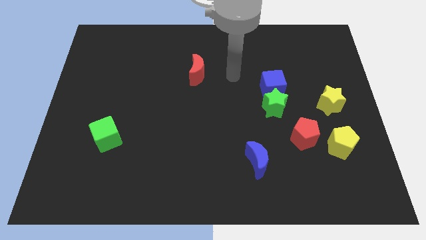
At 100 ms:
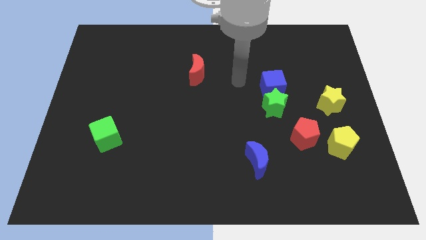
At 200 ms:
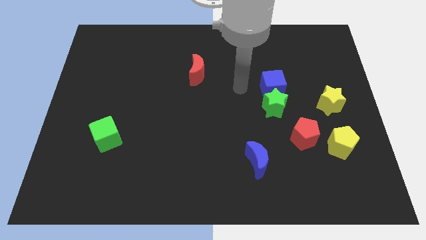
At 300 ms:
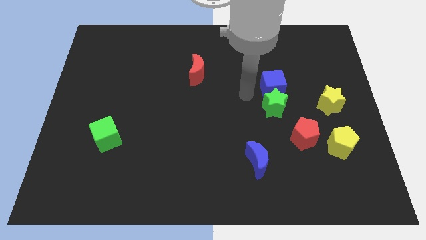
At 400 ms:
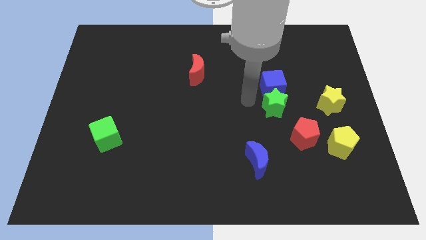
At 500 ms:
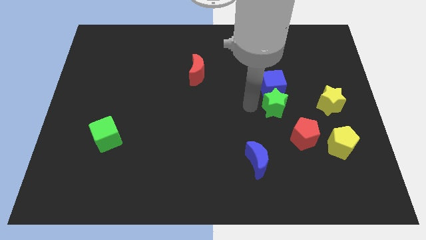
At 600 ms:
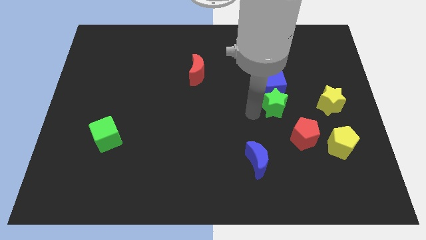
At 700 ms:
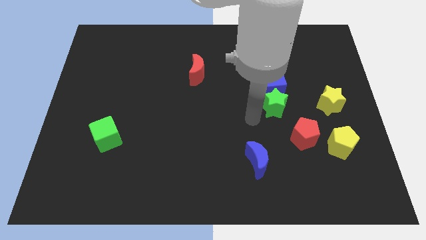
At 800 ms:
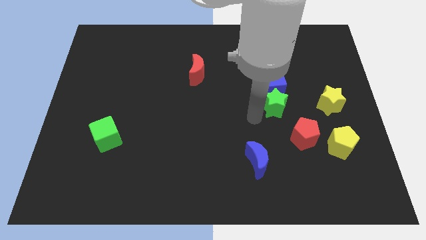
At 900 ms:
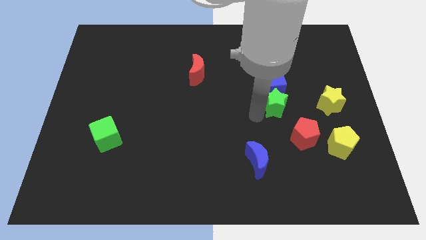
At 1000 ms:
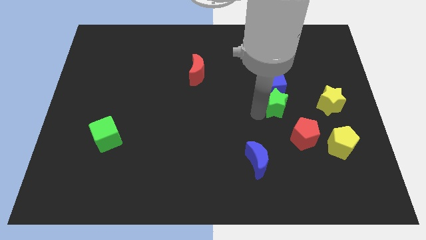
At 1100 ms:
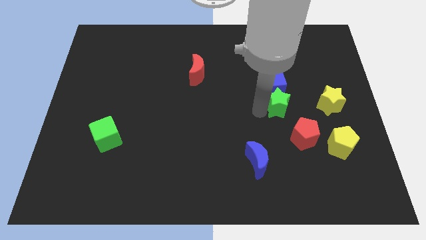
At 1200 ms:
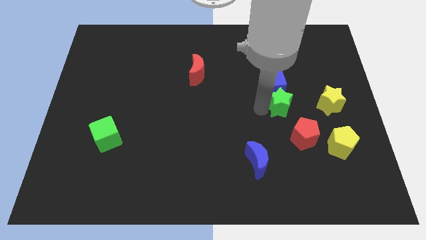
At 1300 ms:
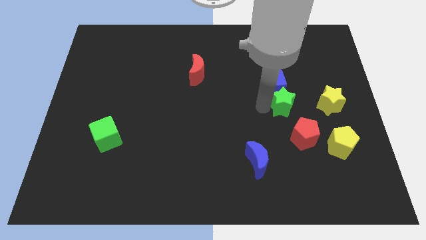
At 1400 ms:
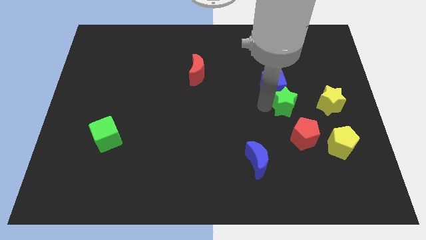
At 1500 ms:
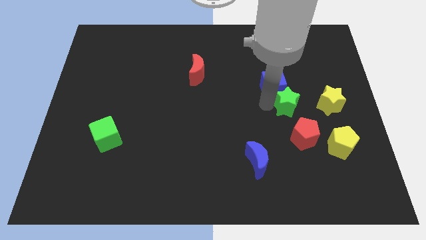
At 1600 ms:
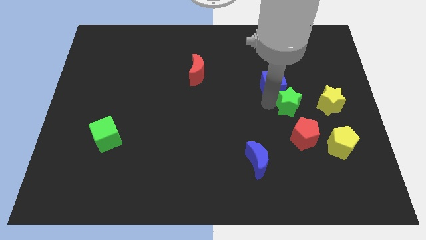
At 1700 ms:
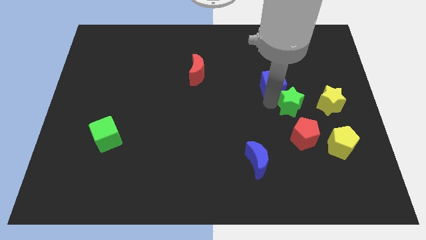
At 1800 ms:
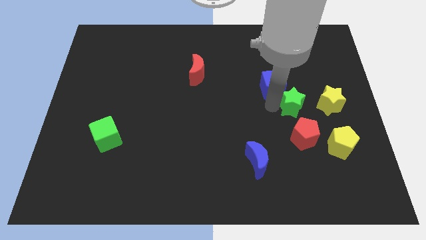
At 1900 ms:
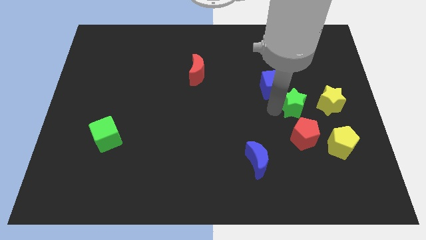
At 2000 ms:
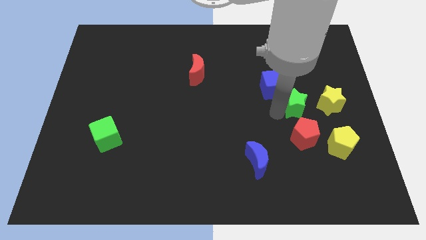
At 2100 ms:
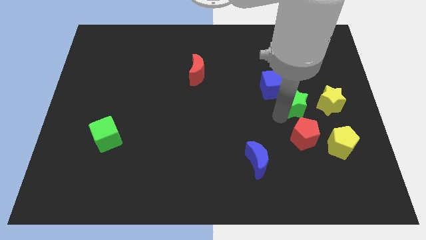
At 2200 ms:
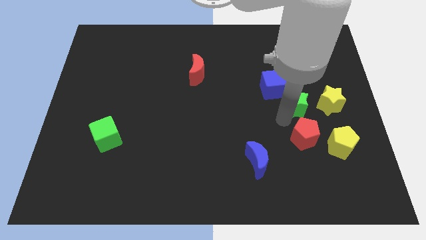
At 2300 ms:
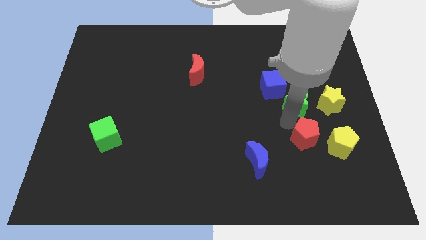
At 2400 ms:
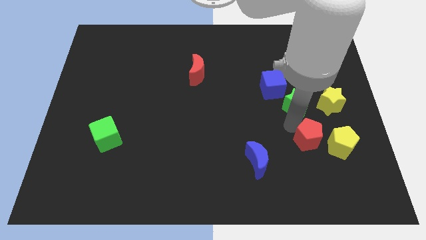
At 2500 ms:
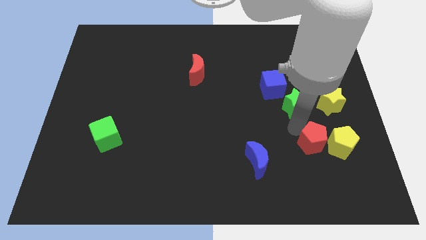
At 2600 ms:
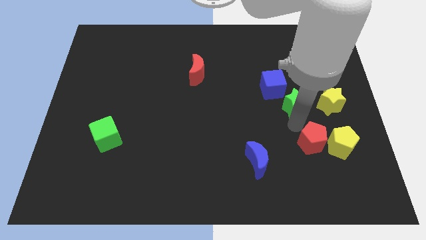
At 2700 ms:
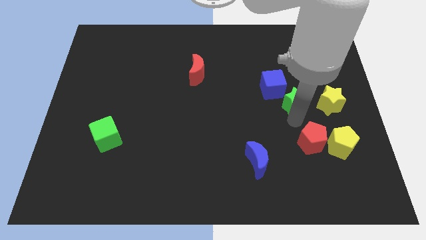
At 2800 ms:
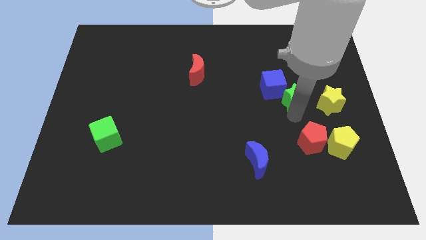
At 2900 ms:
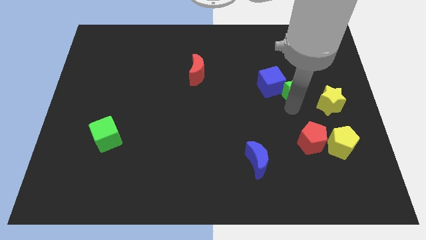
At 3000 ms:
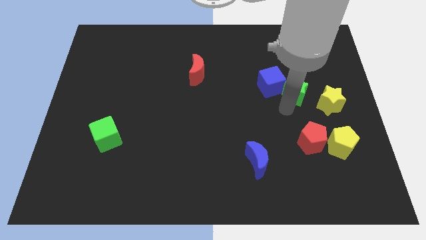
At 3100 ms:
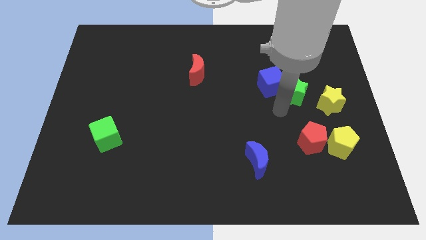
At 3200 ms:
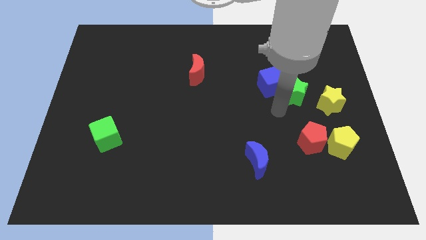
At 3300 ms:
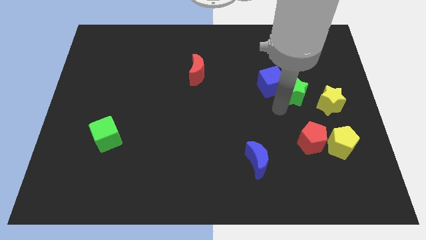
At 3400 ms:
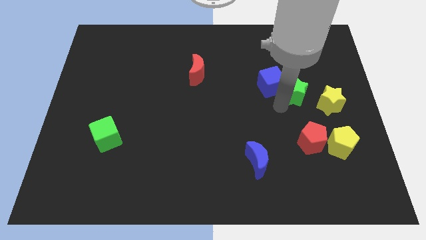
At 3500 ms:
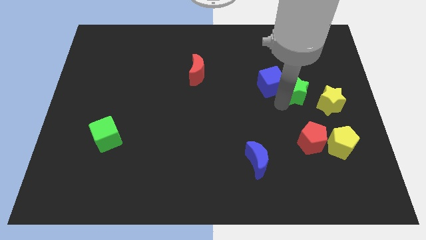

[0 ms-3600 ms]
push the green star upwards and to the right diagonally a bit

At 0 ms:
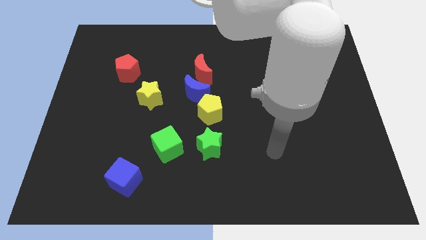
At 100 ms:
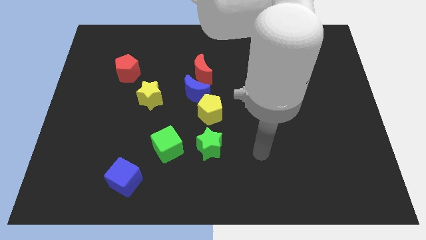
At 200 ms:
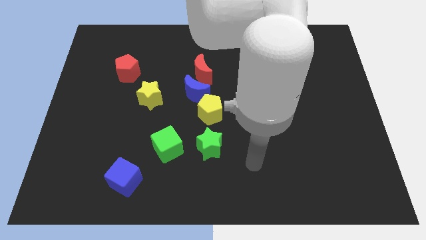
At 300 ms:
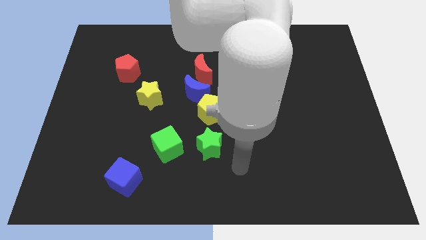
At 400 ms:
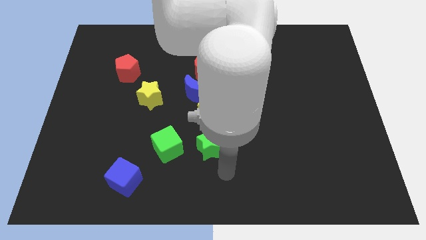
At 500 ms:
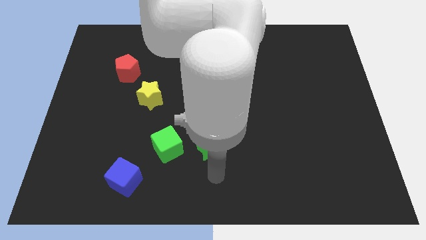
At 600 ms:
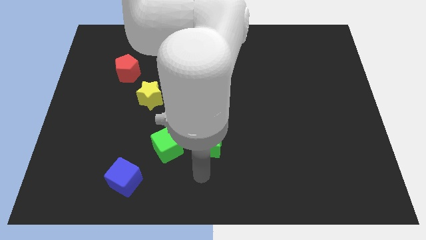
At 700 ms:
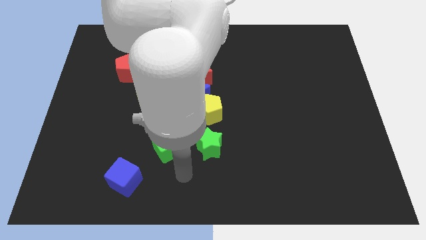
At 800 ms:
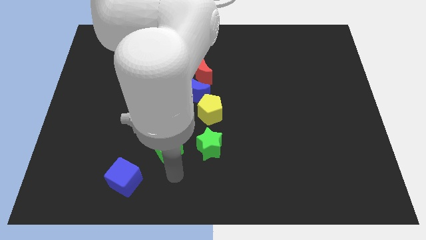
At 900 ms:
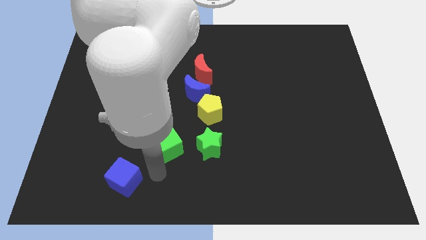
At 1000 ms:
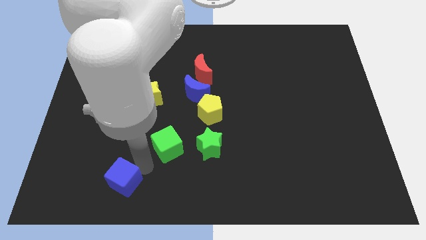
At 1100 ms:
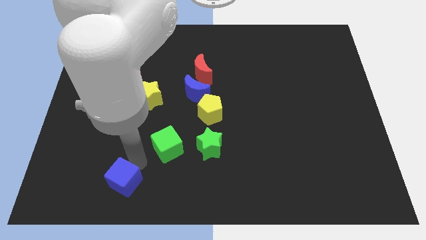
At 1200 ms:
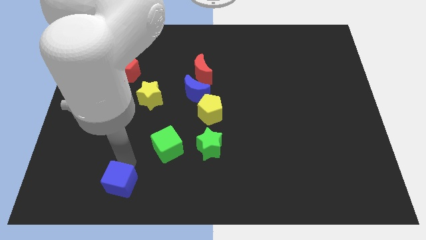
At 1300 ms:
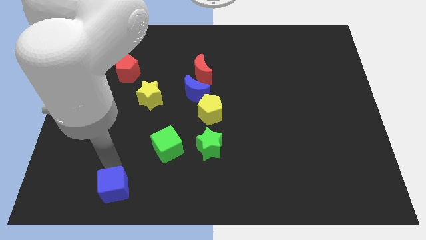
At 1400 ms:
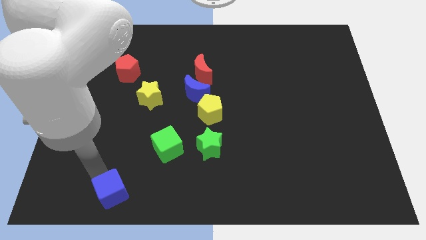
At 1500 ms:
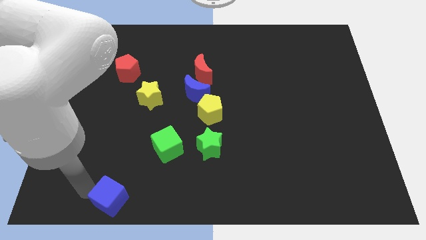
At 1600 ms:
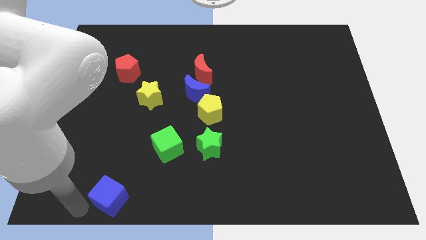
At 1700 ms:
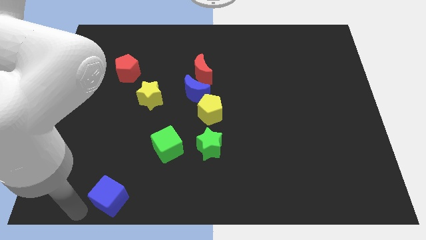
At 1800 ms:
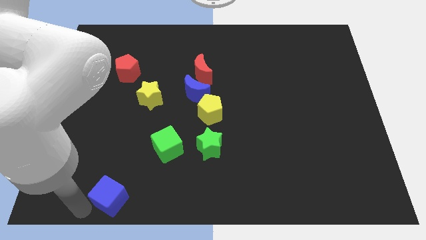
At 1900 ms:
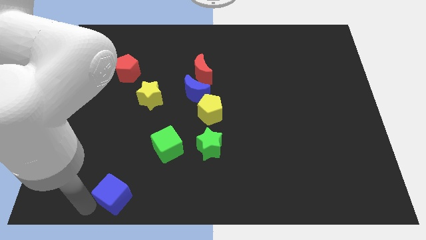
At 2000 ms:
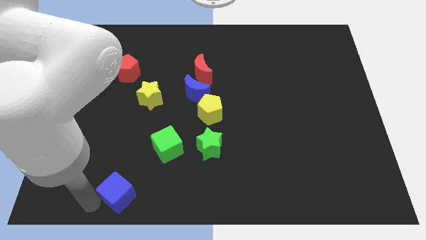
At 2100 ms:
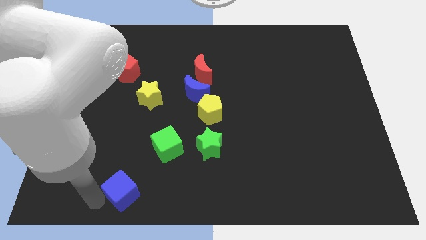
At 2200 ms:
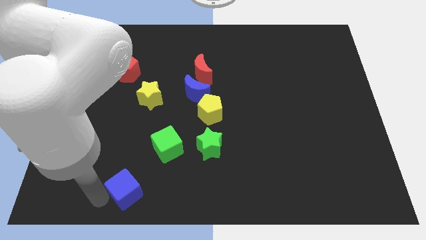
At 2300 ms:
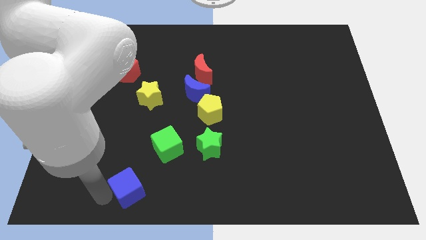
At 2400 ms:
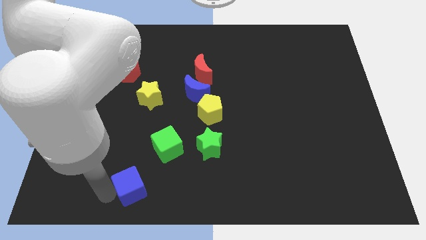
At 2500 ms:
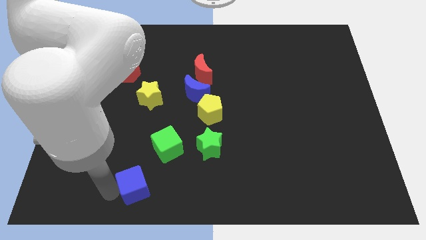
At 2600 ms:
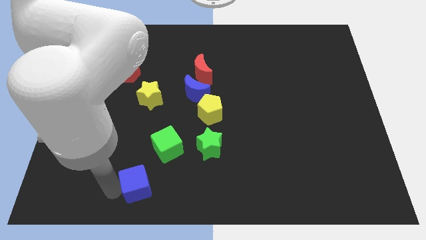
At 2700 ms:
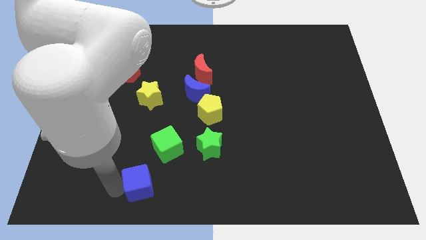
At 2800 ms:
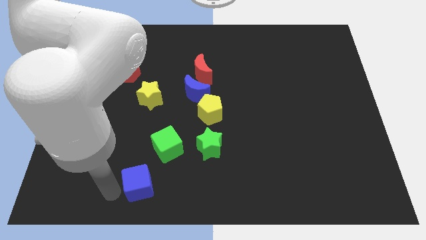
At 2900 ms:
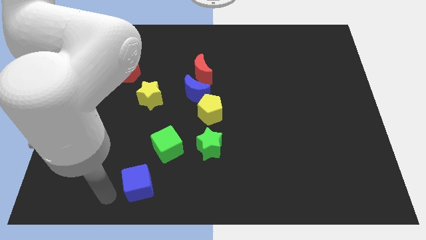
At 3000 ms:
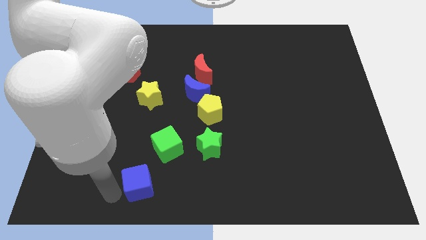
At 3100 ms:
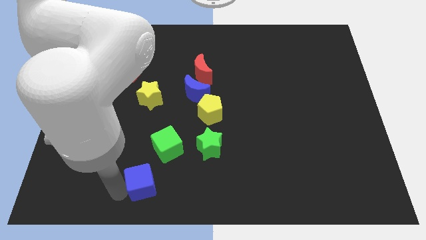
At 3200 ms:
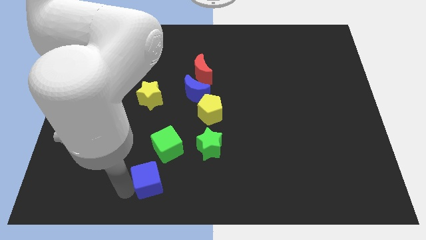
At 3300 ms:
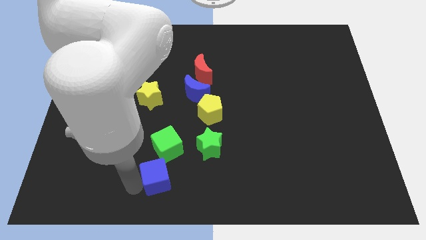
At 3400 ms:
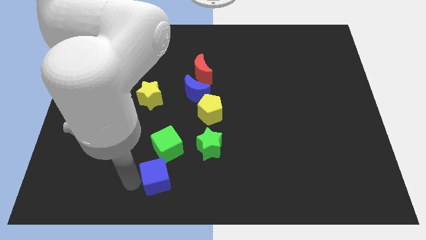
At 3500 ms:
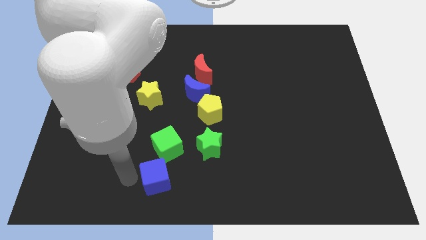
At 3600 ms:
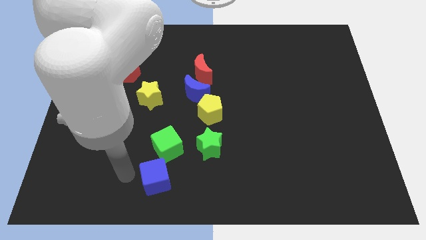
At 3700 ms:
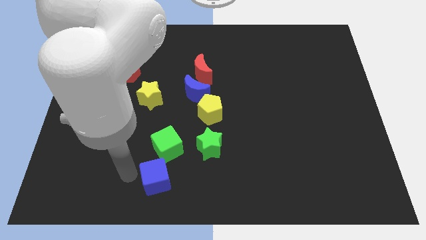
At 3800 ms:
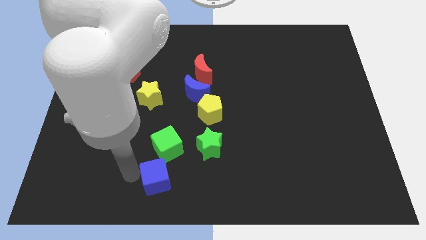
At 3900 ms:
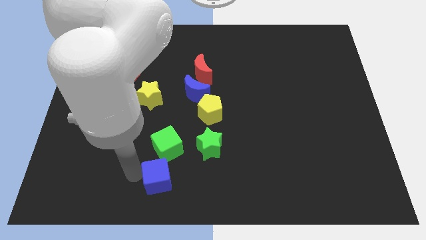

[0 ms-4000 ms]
slightly move the blue cube to the right

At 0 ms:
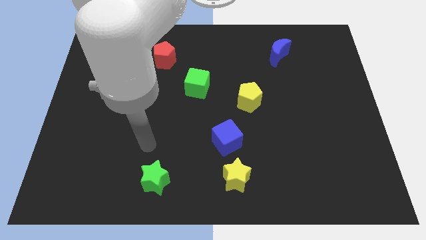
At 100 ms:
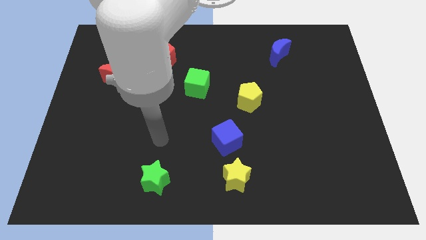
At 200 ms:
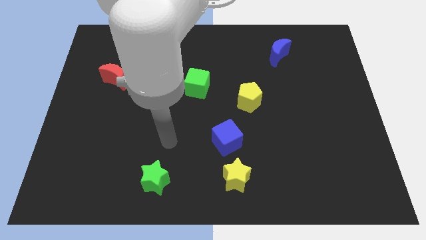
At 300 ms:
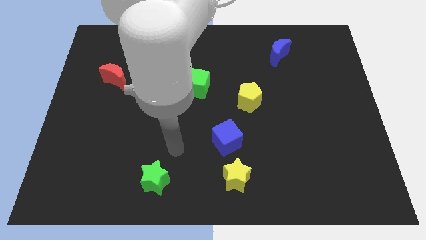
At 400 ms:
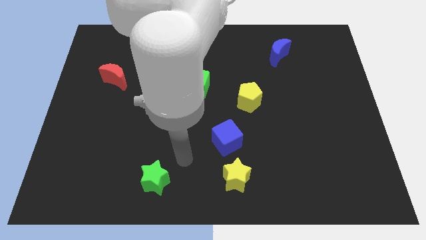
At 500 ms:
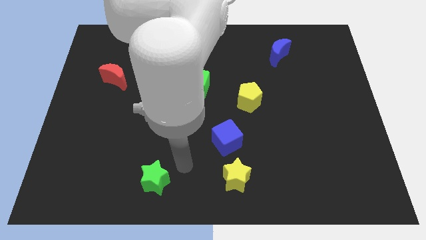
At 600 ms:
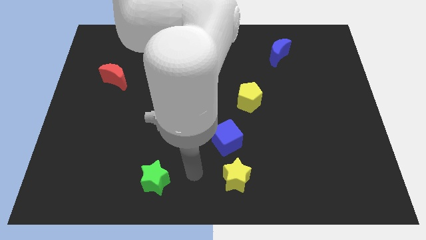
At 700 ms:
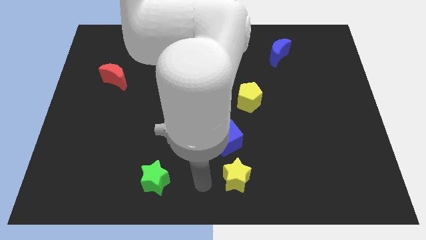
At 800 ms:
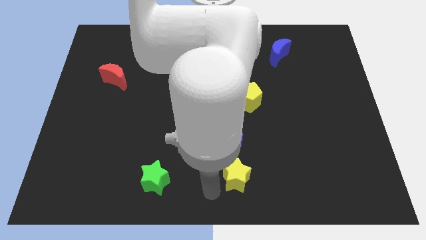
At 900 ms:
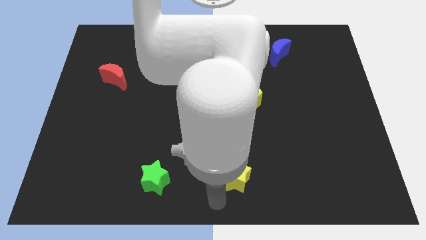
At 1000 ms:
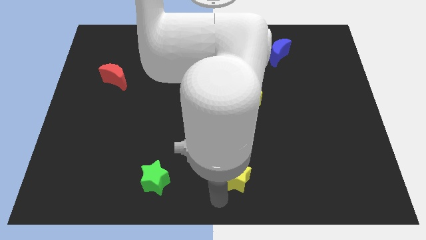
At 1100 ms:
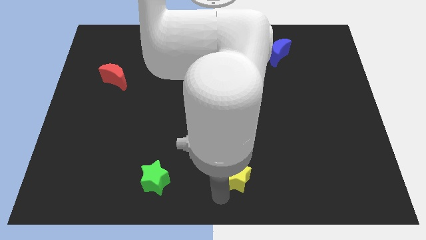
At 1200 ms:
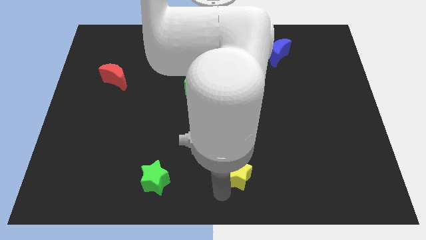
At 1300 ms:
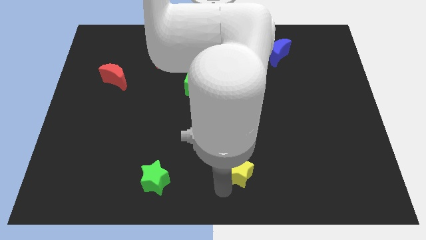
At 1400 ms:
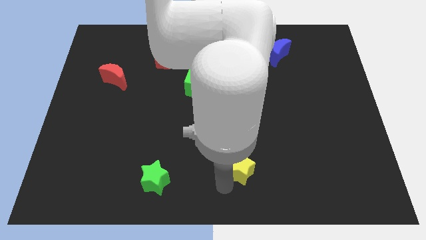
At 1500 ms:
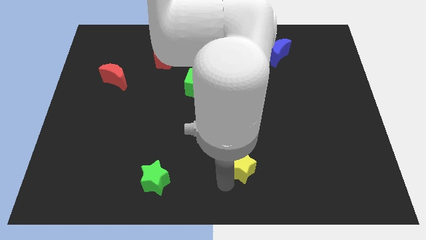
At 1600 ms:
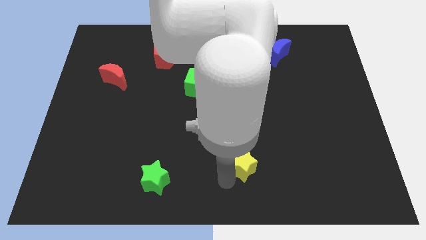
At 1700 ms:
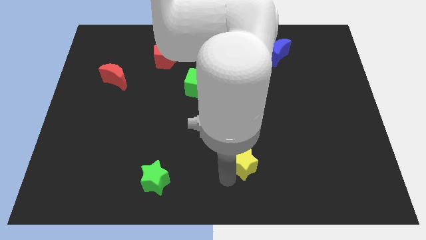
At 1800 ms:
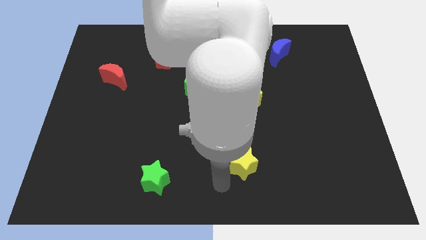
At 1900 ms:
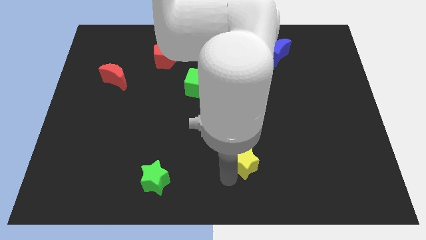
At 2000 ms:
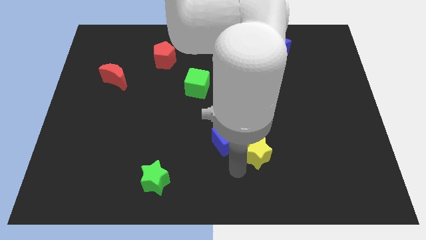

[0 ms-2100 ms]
slightly move the yellow star up and then to the right
